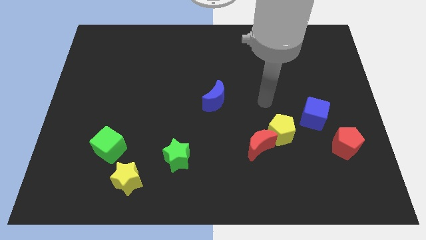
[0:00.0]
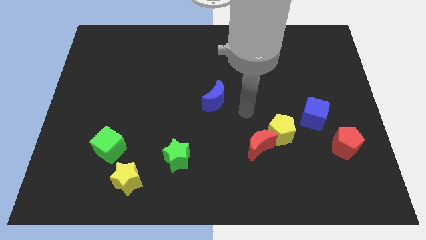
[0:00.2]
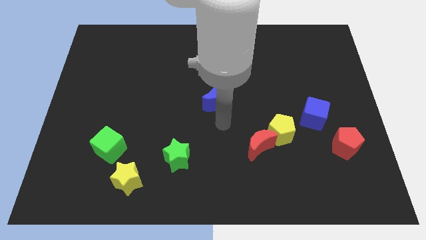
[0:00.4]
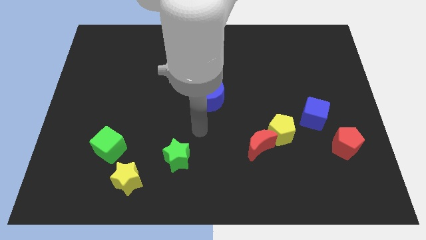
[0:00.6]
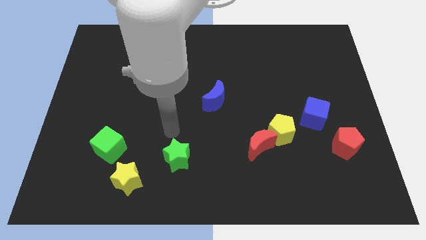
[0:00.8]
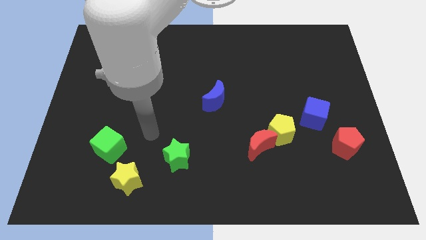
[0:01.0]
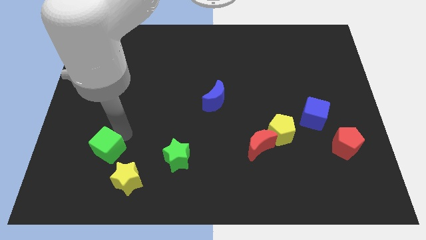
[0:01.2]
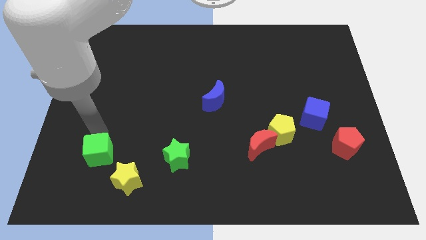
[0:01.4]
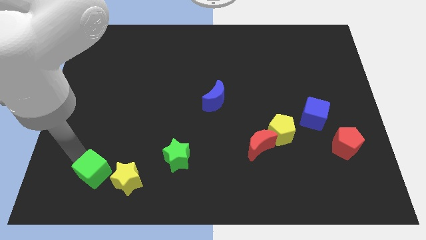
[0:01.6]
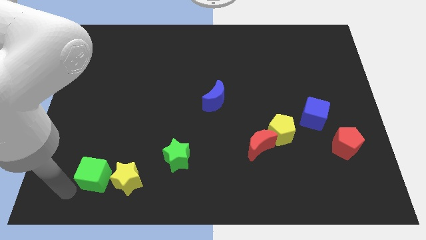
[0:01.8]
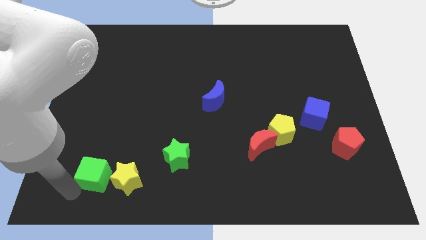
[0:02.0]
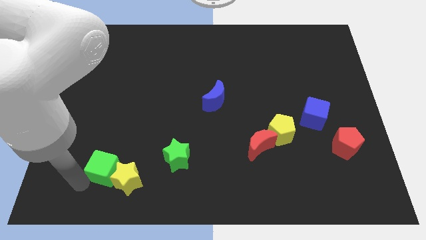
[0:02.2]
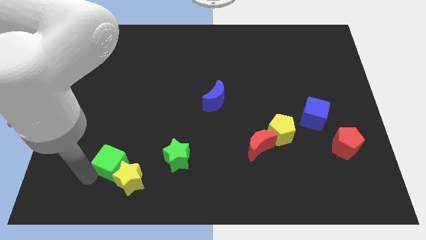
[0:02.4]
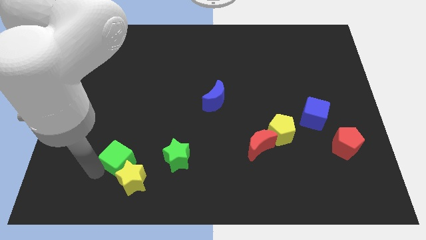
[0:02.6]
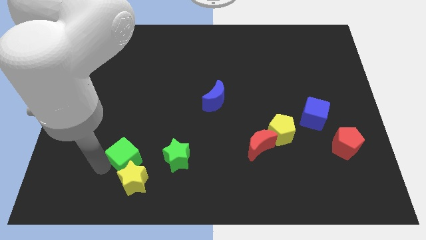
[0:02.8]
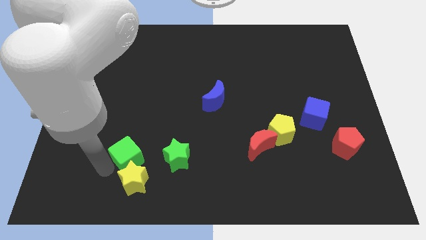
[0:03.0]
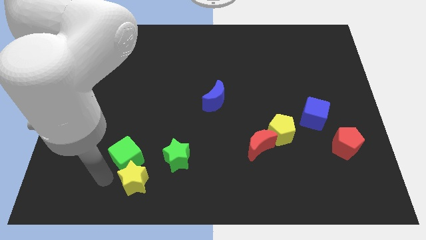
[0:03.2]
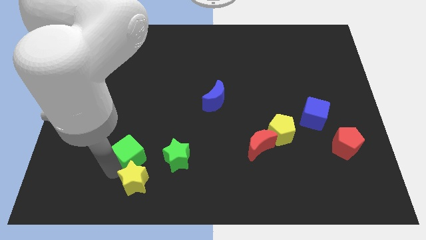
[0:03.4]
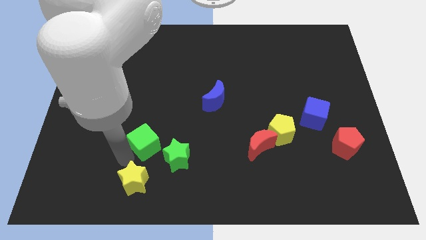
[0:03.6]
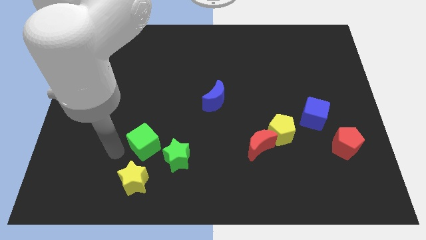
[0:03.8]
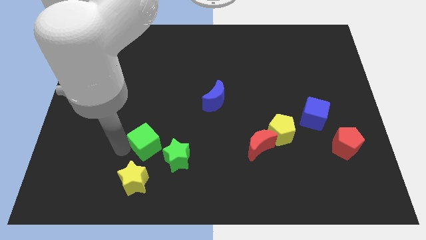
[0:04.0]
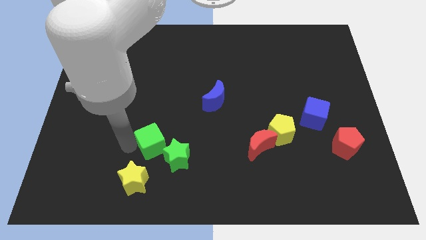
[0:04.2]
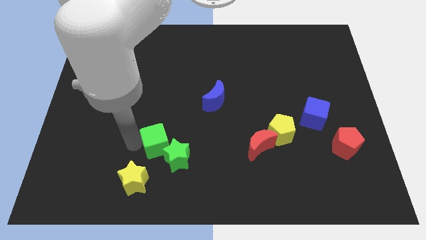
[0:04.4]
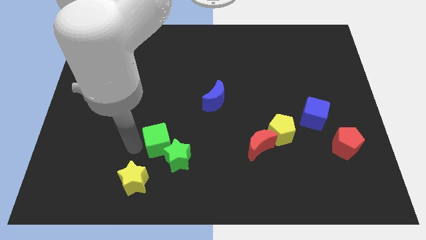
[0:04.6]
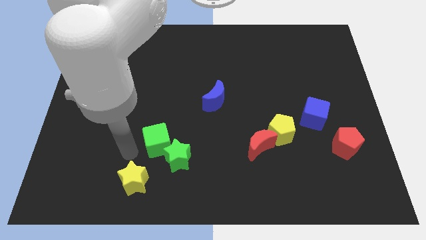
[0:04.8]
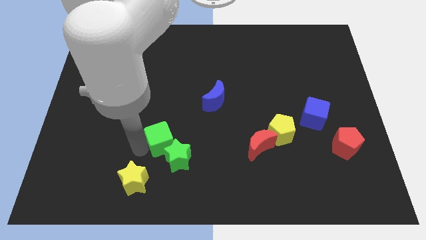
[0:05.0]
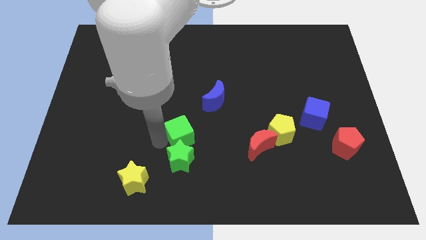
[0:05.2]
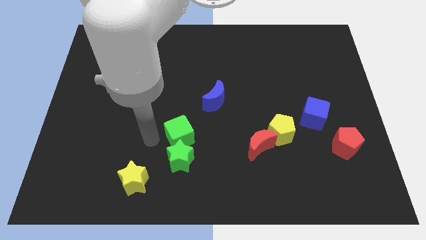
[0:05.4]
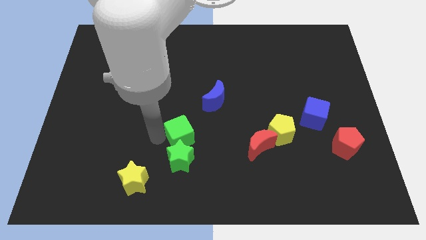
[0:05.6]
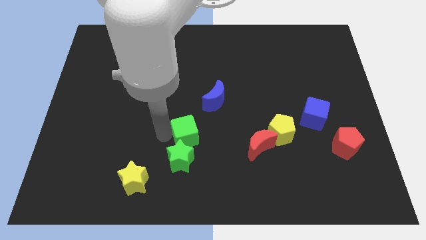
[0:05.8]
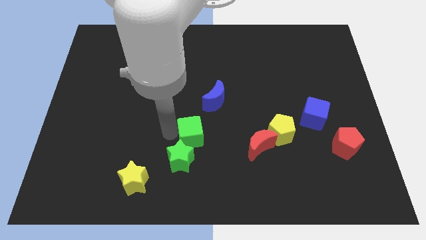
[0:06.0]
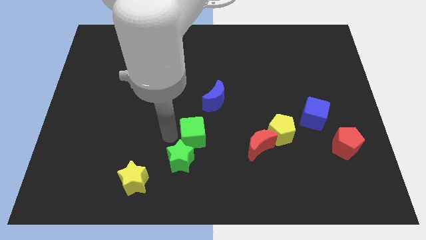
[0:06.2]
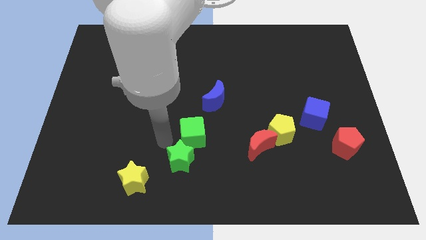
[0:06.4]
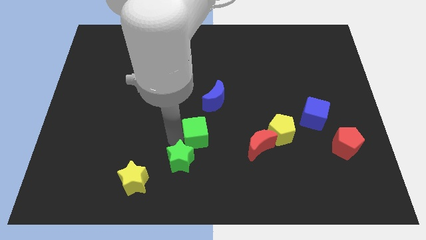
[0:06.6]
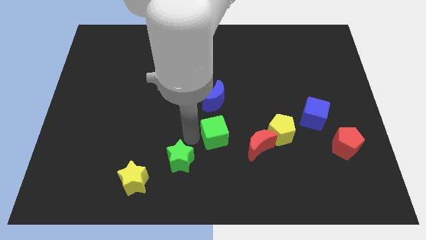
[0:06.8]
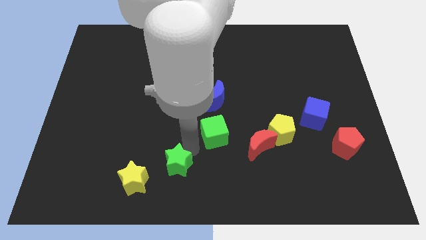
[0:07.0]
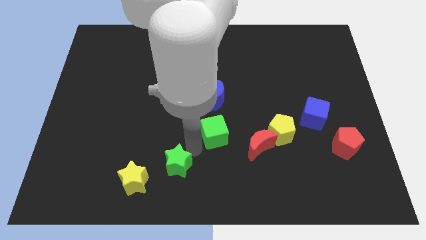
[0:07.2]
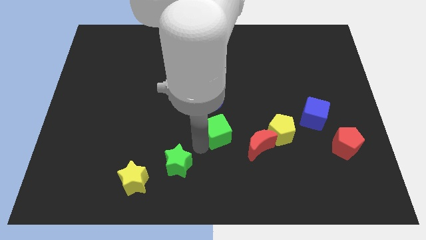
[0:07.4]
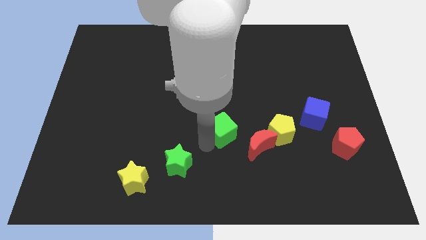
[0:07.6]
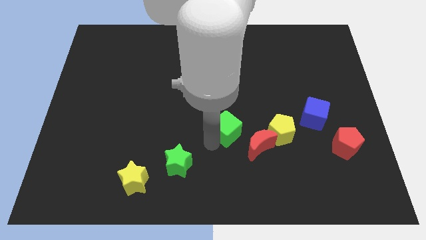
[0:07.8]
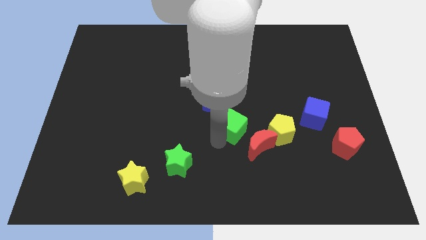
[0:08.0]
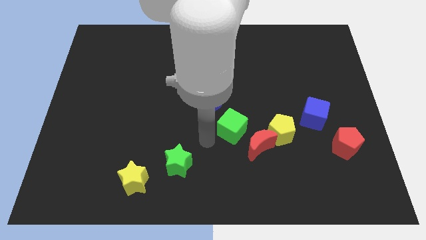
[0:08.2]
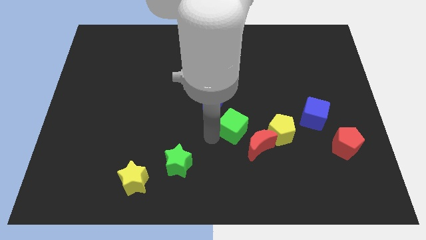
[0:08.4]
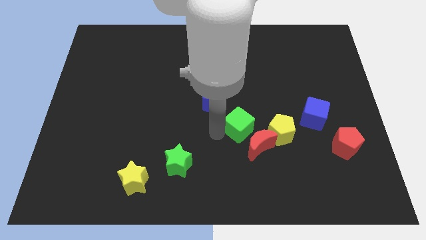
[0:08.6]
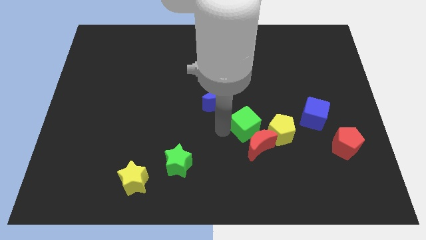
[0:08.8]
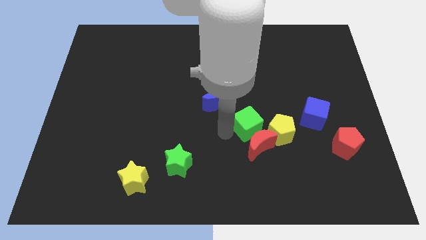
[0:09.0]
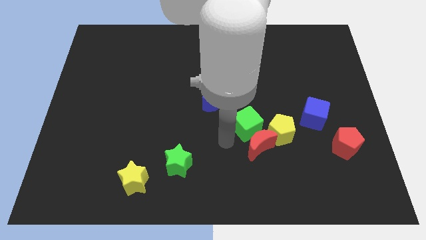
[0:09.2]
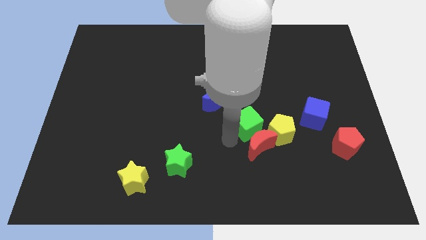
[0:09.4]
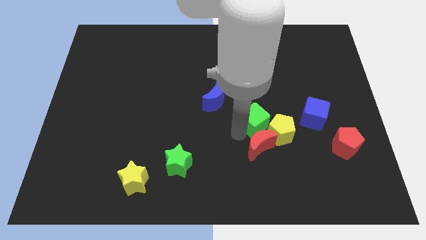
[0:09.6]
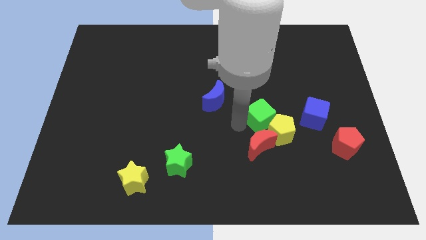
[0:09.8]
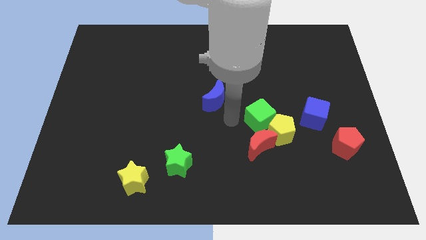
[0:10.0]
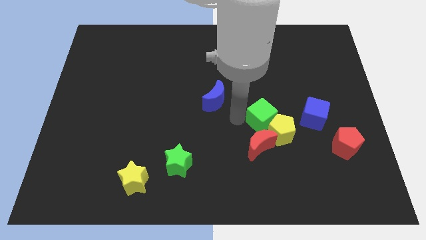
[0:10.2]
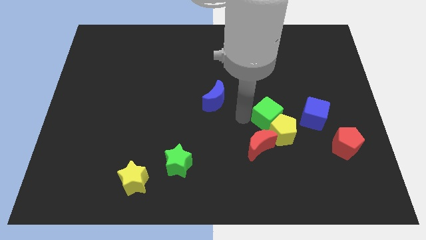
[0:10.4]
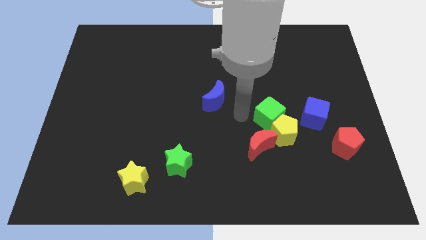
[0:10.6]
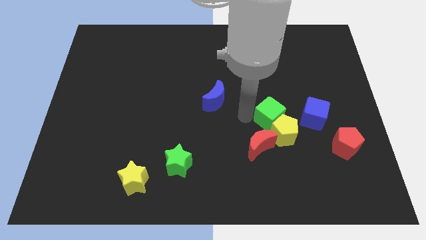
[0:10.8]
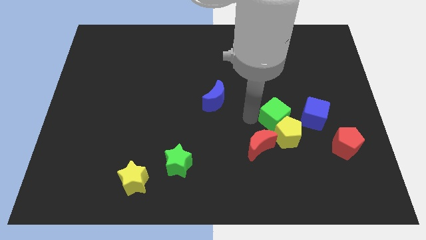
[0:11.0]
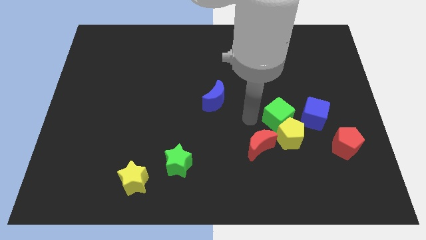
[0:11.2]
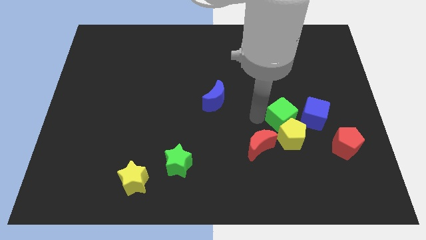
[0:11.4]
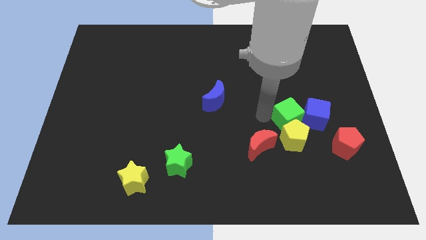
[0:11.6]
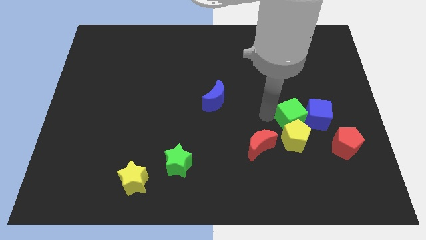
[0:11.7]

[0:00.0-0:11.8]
slide the green cube close to the blue cube
